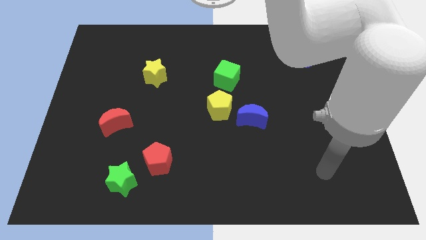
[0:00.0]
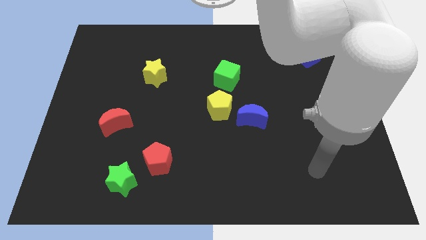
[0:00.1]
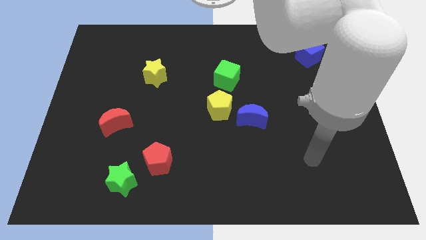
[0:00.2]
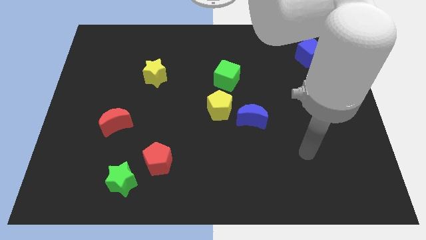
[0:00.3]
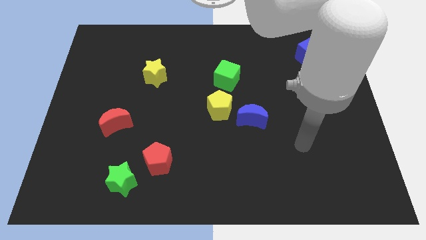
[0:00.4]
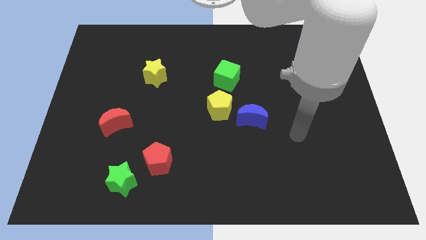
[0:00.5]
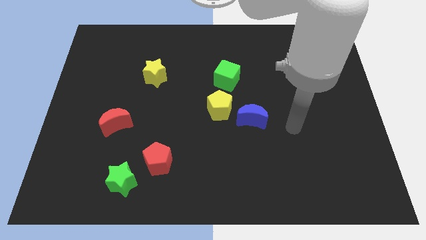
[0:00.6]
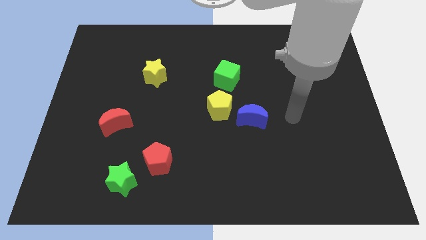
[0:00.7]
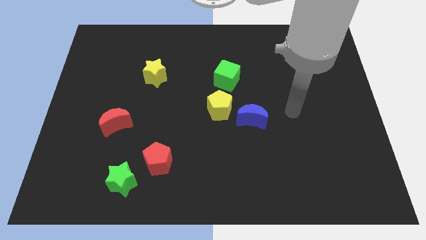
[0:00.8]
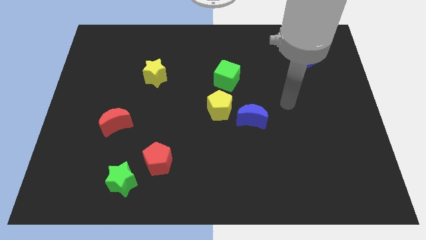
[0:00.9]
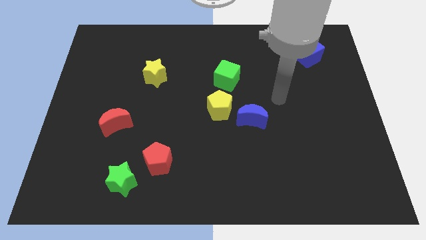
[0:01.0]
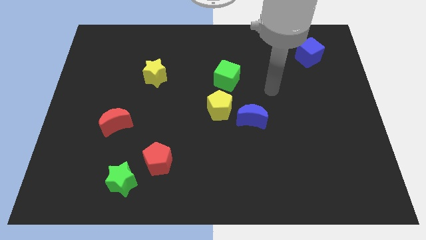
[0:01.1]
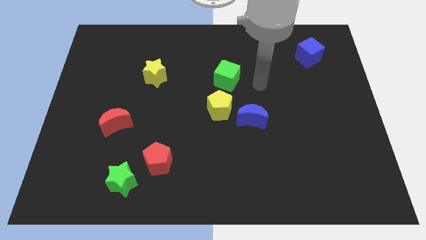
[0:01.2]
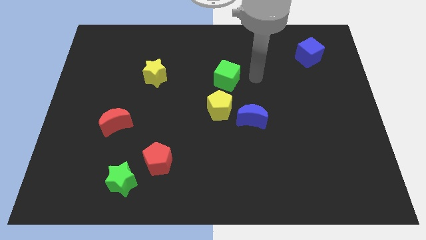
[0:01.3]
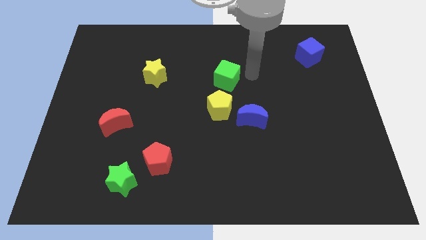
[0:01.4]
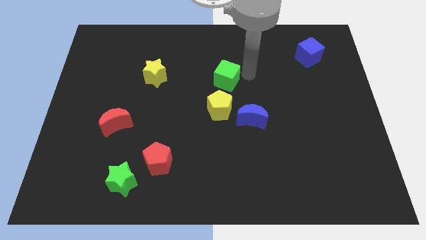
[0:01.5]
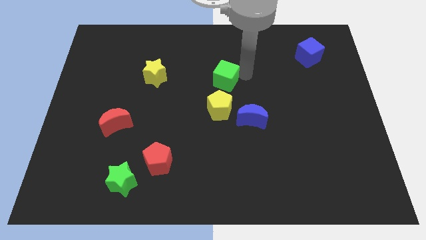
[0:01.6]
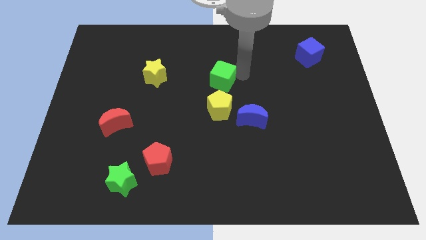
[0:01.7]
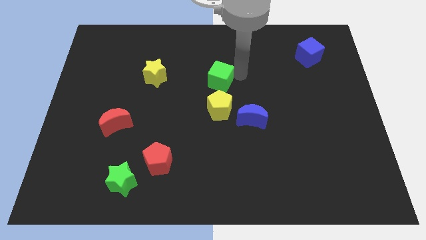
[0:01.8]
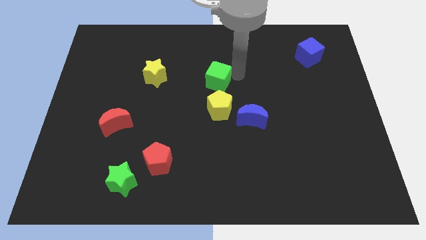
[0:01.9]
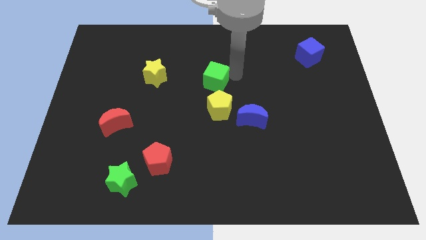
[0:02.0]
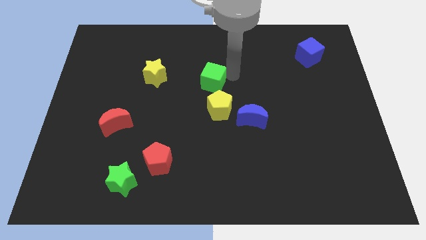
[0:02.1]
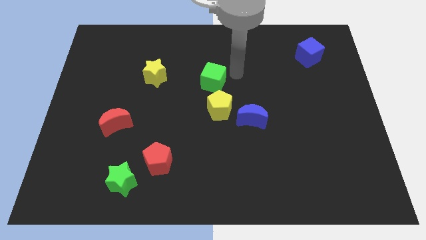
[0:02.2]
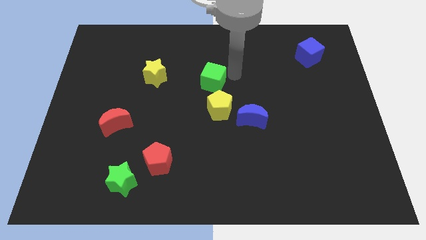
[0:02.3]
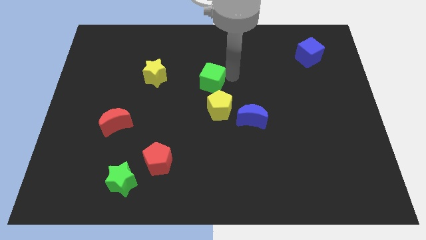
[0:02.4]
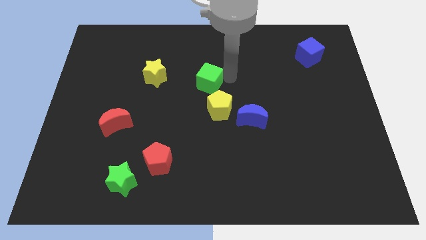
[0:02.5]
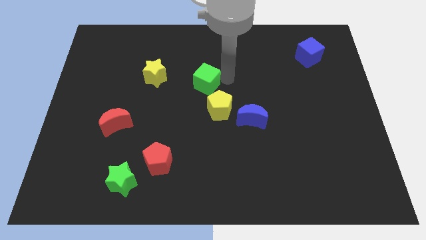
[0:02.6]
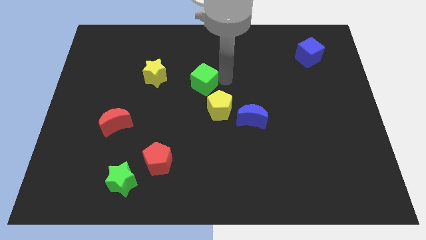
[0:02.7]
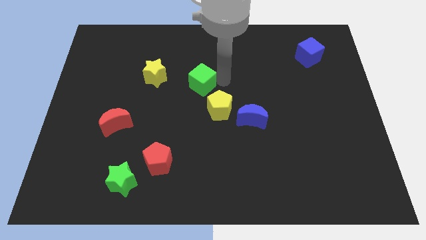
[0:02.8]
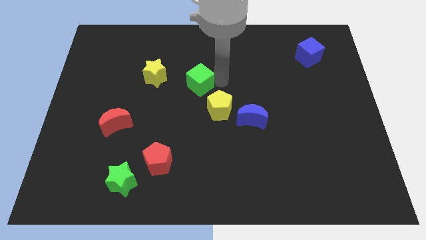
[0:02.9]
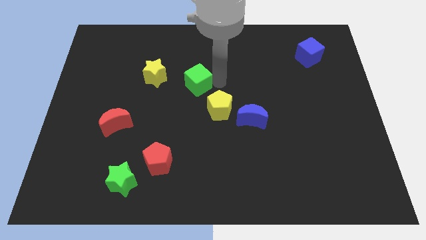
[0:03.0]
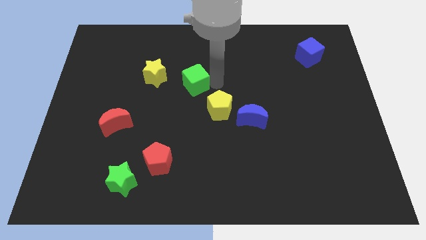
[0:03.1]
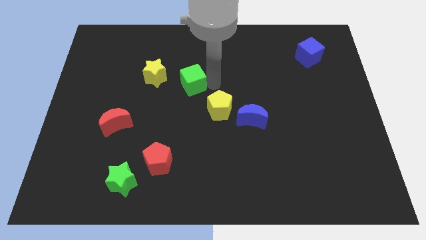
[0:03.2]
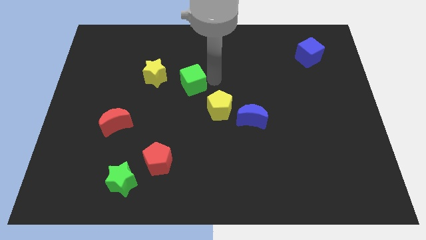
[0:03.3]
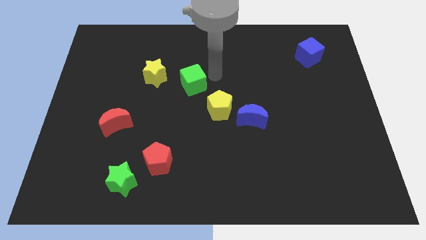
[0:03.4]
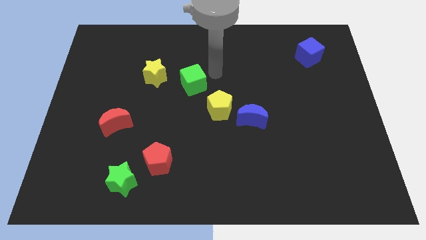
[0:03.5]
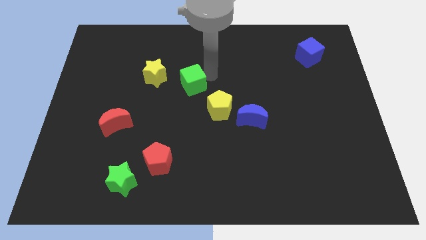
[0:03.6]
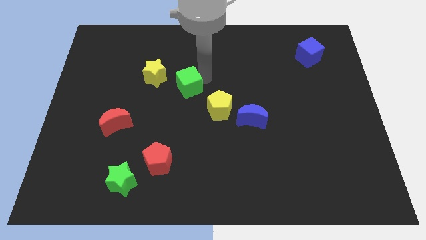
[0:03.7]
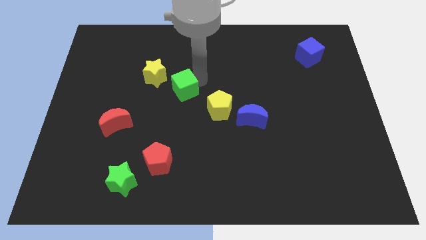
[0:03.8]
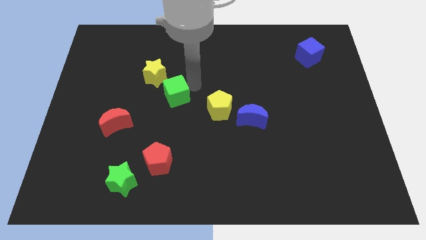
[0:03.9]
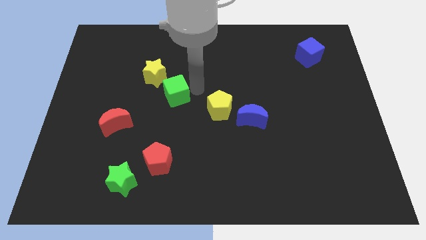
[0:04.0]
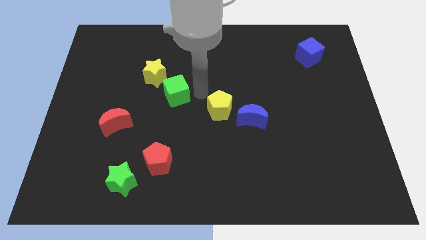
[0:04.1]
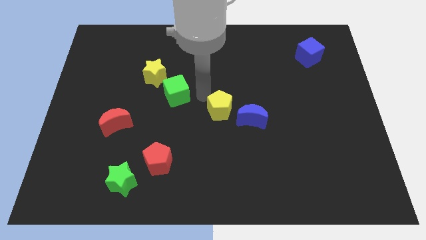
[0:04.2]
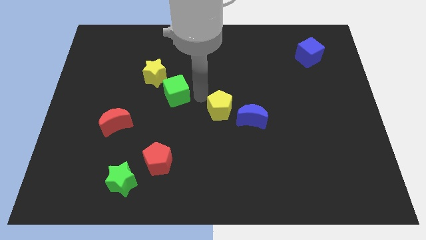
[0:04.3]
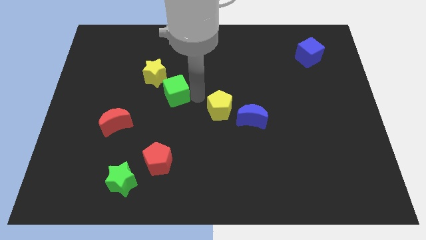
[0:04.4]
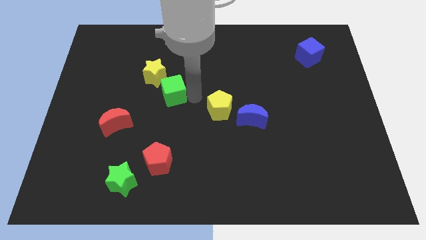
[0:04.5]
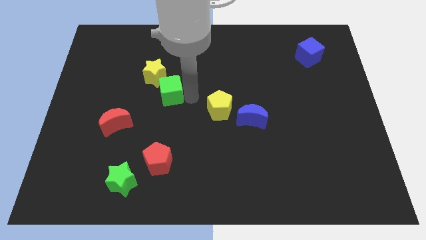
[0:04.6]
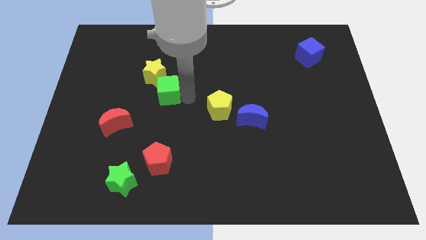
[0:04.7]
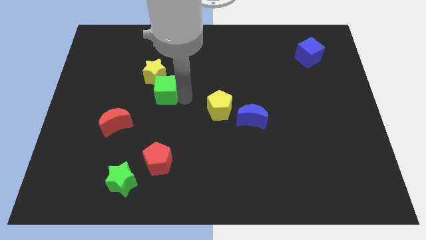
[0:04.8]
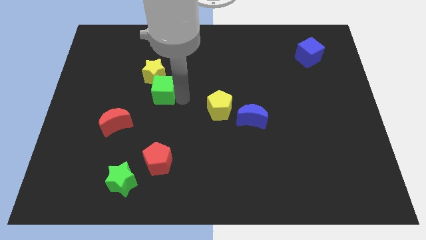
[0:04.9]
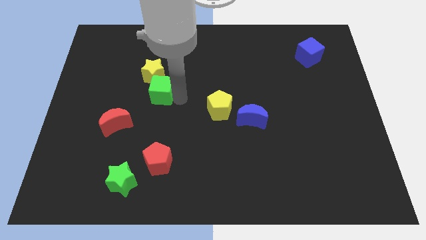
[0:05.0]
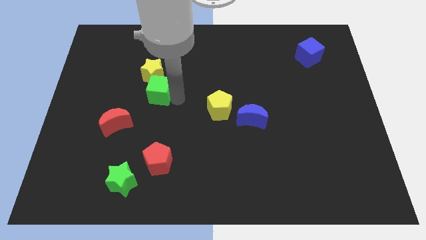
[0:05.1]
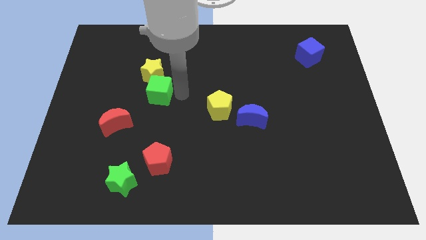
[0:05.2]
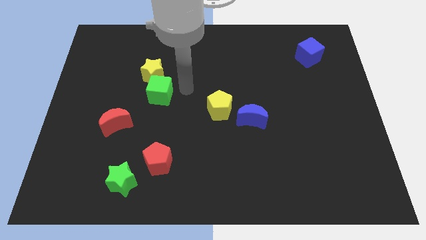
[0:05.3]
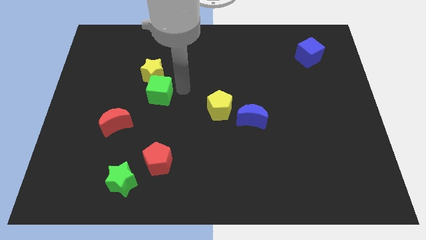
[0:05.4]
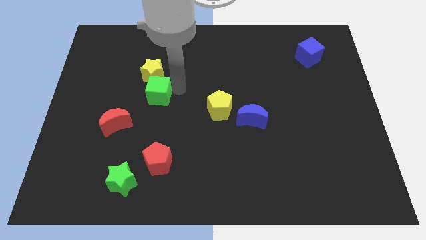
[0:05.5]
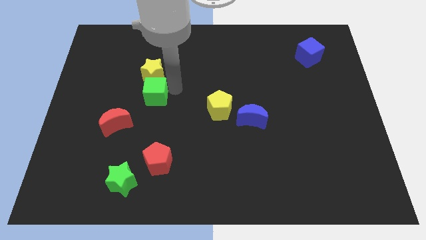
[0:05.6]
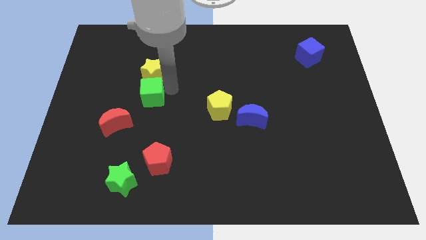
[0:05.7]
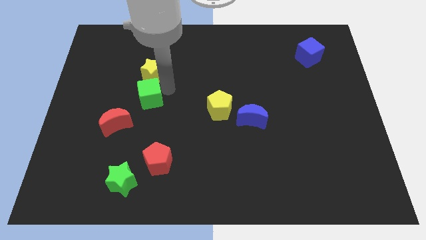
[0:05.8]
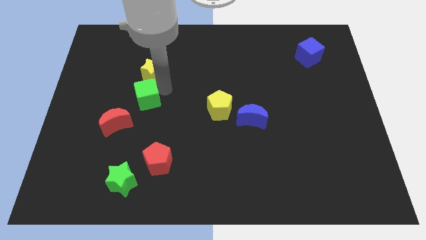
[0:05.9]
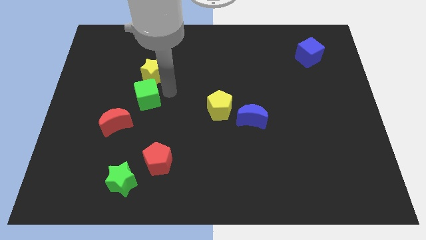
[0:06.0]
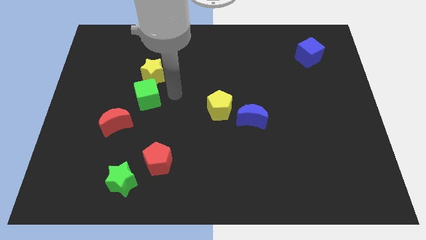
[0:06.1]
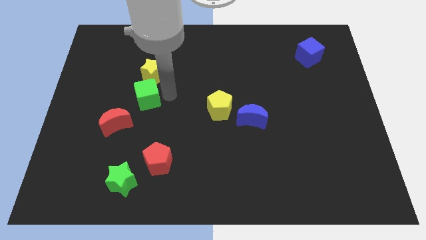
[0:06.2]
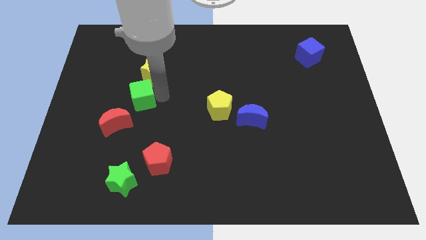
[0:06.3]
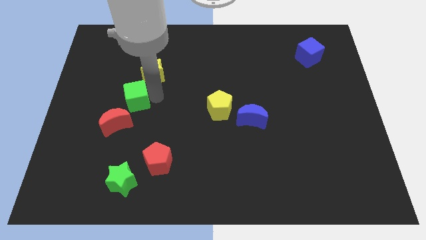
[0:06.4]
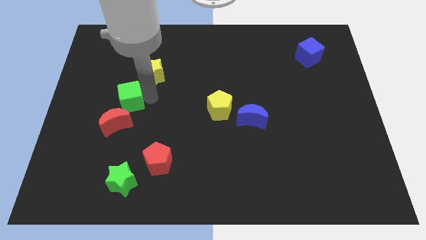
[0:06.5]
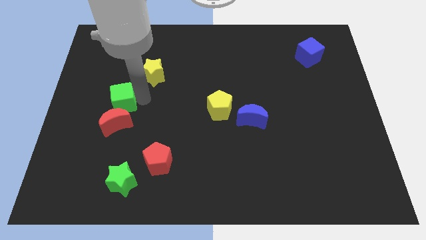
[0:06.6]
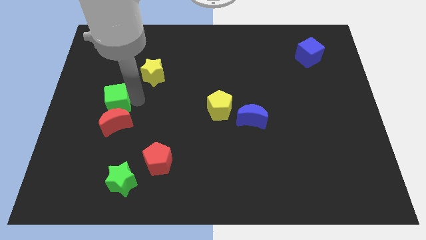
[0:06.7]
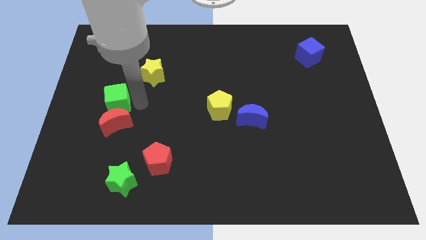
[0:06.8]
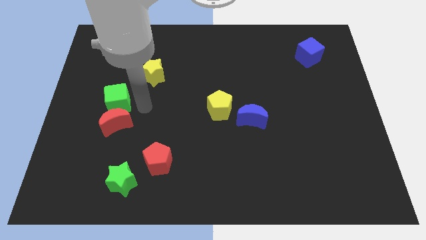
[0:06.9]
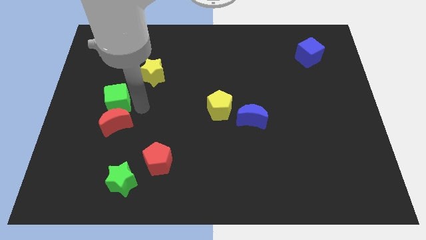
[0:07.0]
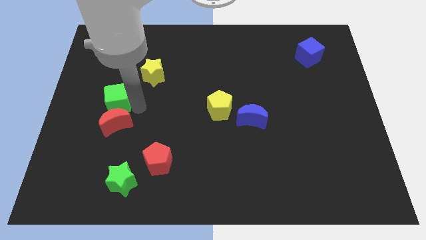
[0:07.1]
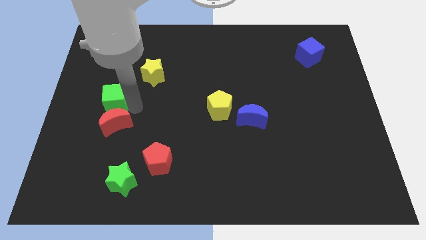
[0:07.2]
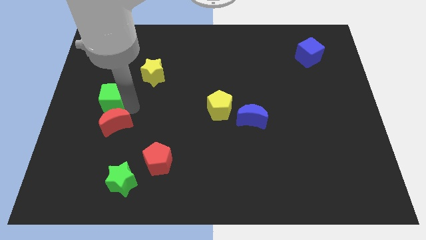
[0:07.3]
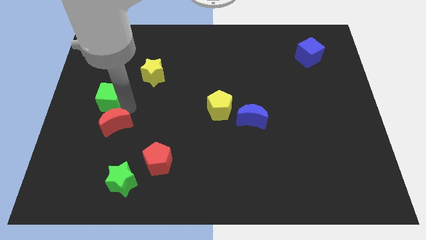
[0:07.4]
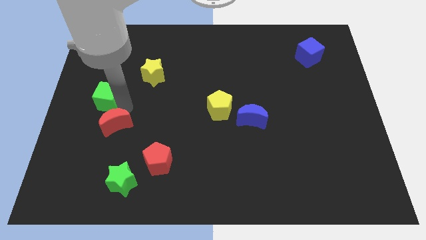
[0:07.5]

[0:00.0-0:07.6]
push the green cube to the left side
